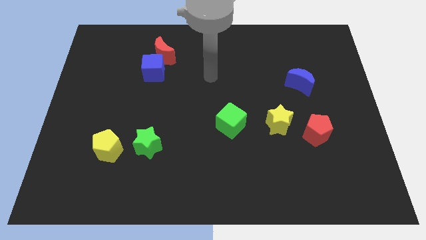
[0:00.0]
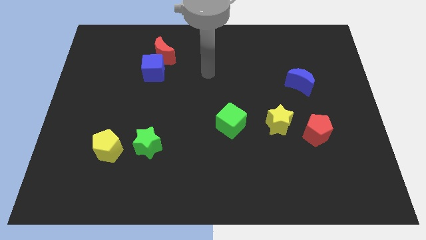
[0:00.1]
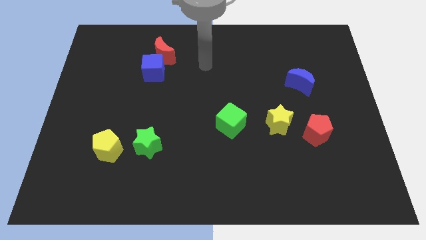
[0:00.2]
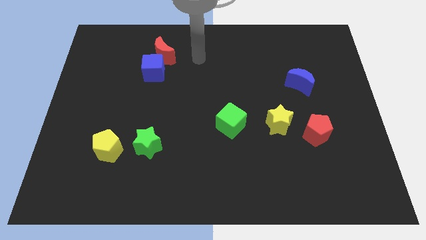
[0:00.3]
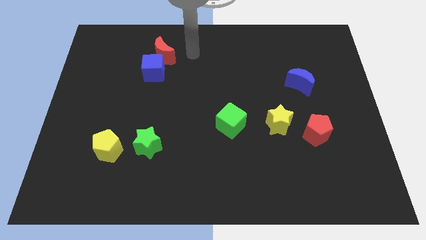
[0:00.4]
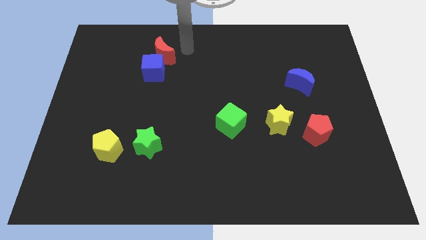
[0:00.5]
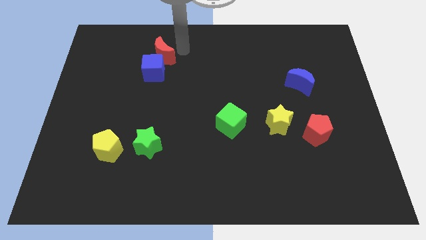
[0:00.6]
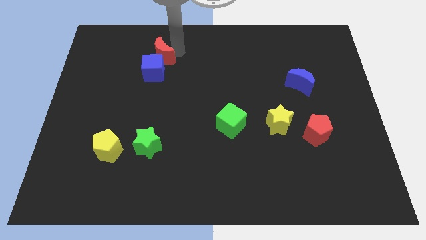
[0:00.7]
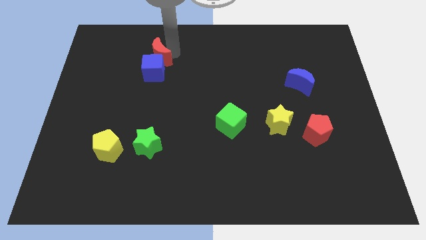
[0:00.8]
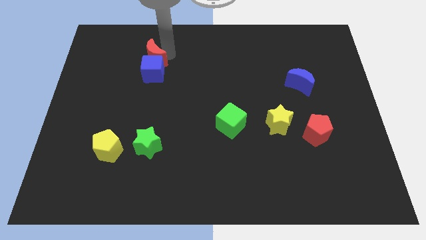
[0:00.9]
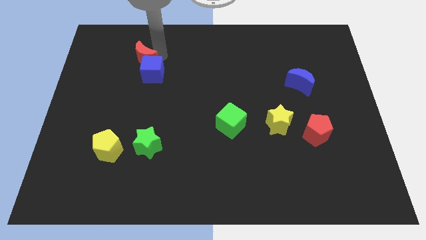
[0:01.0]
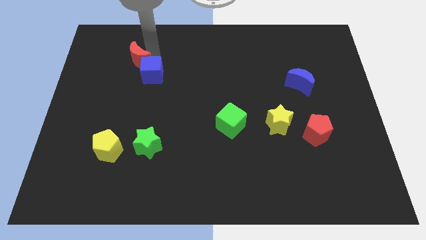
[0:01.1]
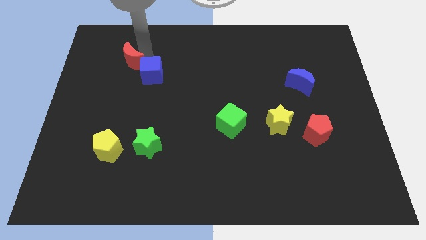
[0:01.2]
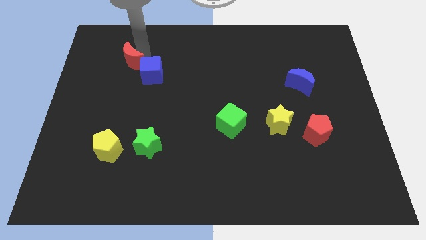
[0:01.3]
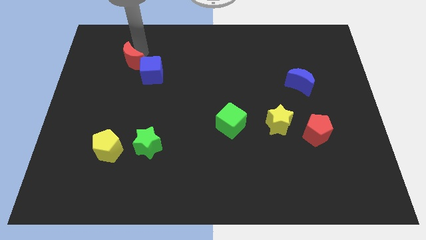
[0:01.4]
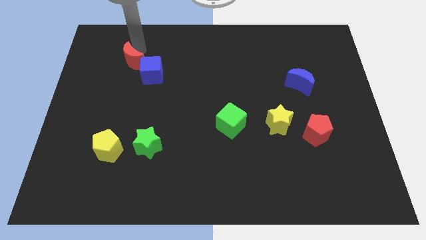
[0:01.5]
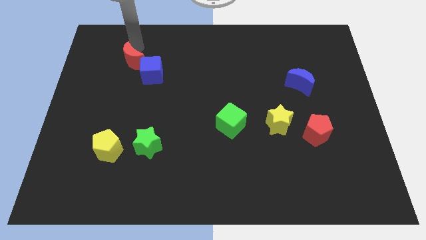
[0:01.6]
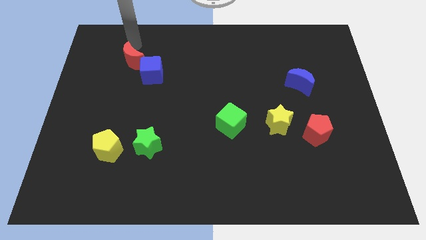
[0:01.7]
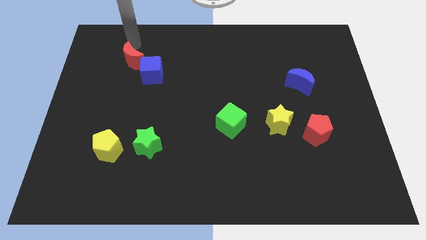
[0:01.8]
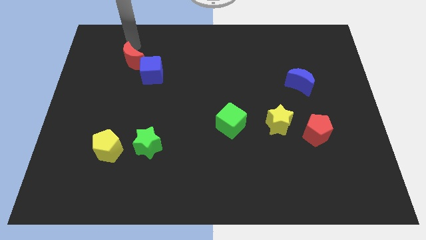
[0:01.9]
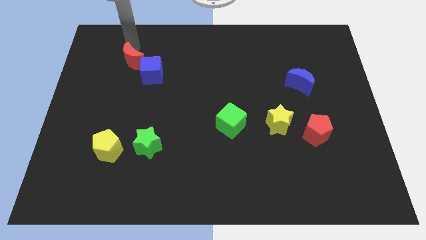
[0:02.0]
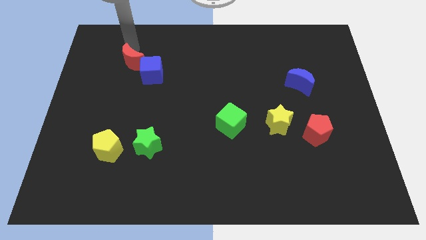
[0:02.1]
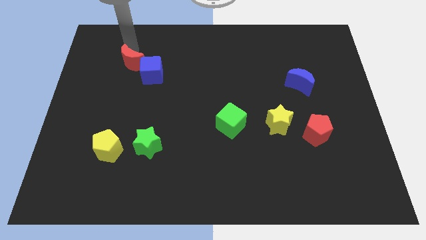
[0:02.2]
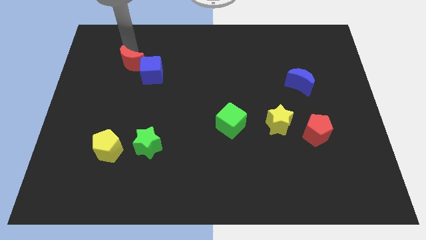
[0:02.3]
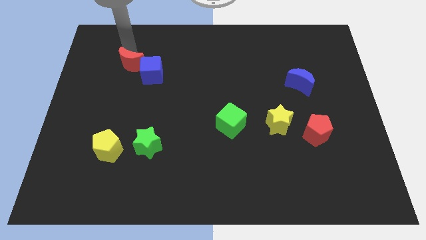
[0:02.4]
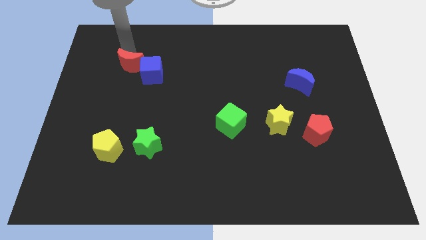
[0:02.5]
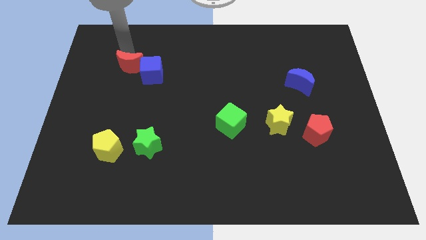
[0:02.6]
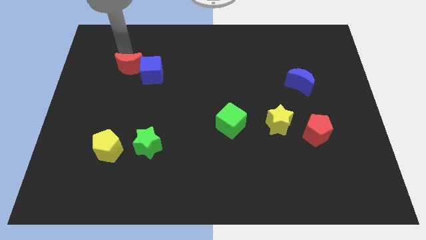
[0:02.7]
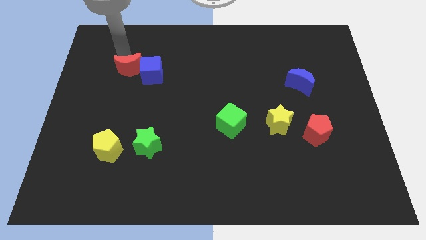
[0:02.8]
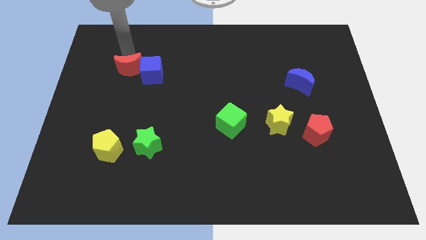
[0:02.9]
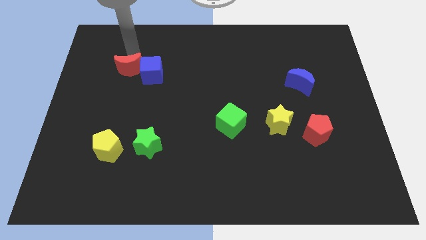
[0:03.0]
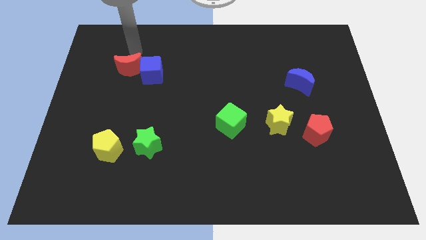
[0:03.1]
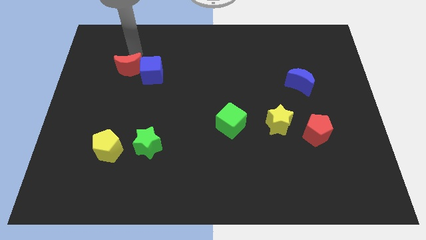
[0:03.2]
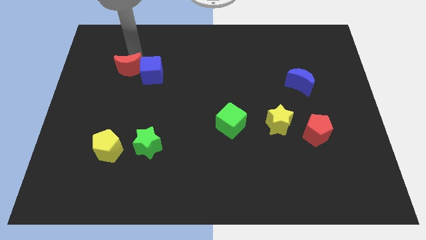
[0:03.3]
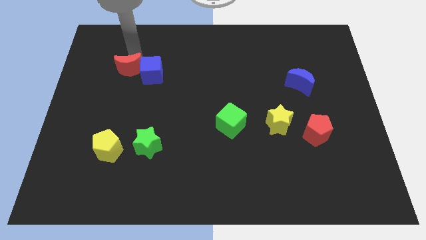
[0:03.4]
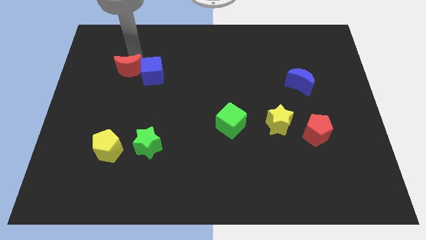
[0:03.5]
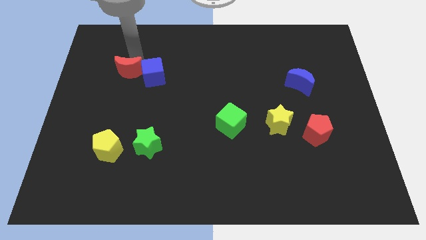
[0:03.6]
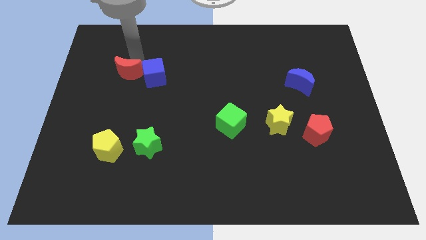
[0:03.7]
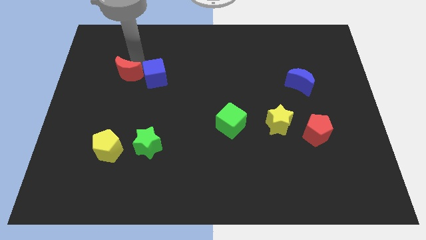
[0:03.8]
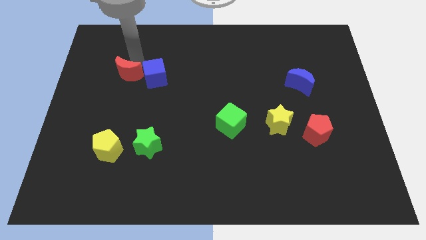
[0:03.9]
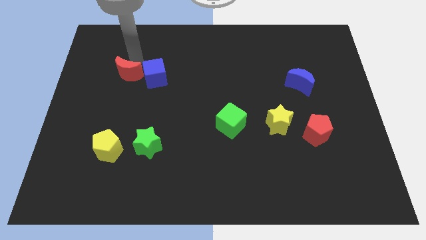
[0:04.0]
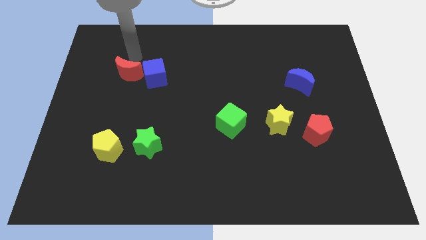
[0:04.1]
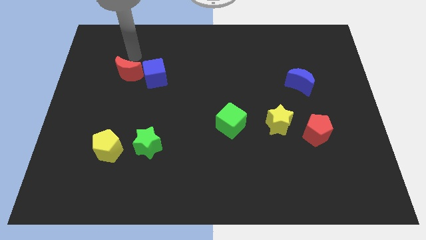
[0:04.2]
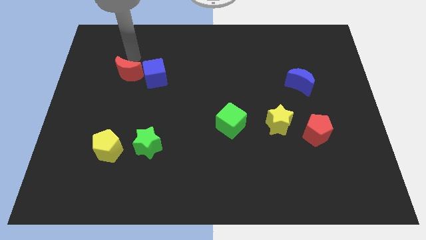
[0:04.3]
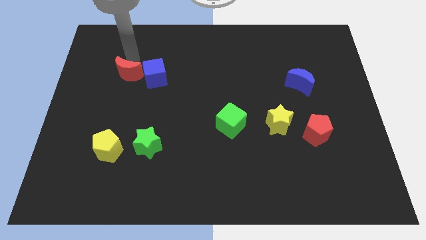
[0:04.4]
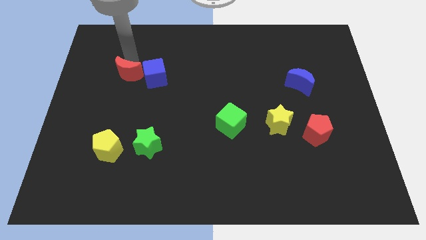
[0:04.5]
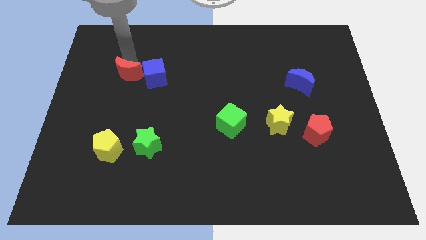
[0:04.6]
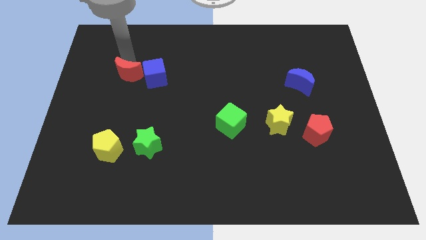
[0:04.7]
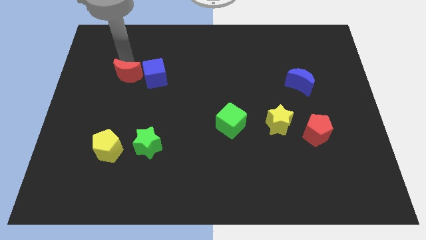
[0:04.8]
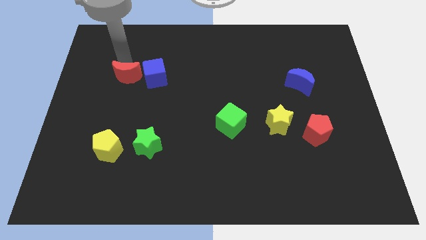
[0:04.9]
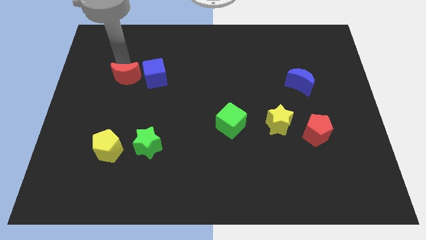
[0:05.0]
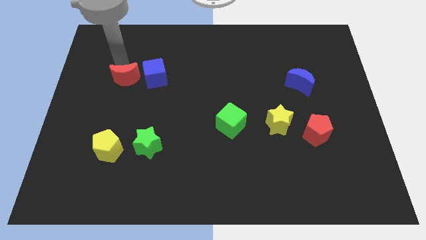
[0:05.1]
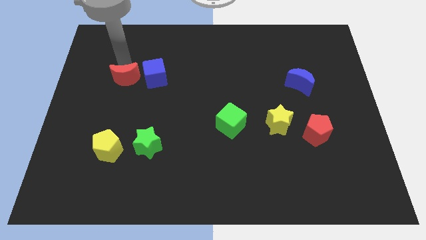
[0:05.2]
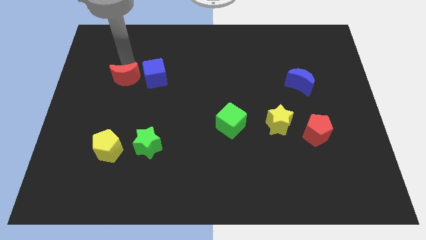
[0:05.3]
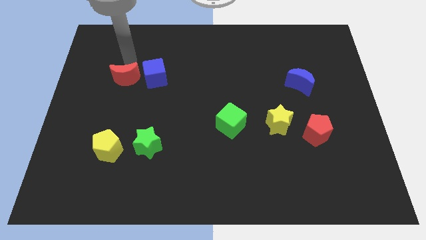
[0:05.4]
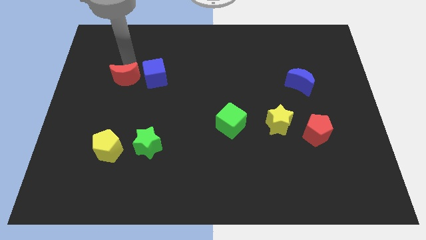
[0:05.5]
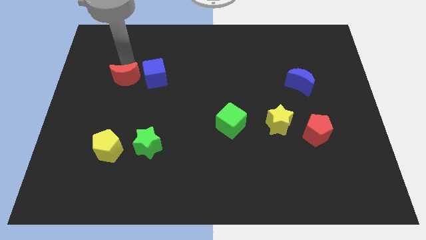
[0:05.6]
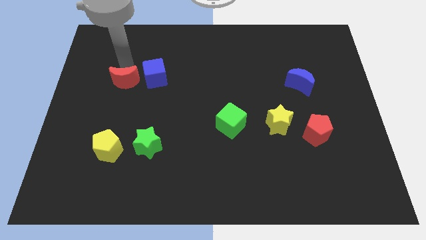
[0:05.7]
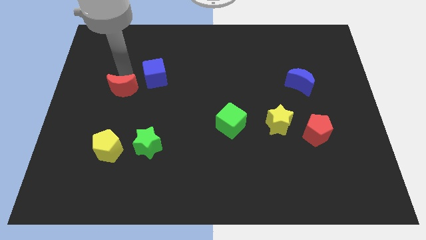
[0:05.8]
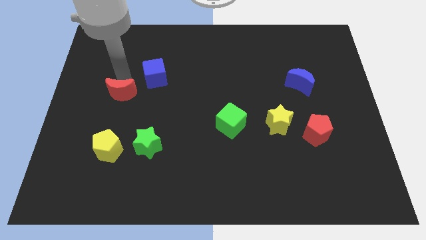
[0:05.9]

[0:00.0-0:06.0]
put the red moon above the yellow pentagon
